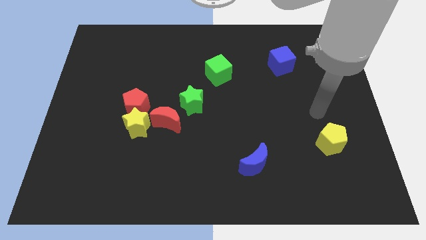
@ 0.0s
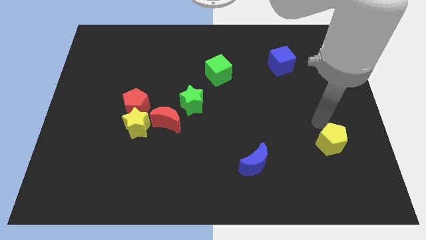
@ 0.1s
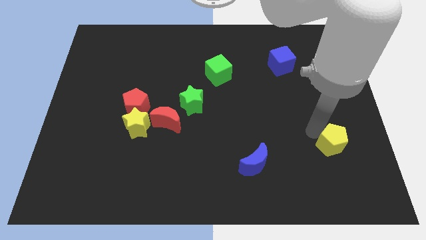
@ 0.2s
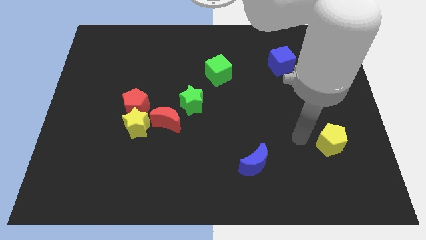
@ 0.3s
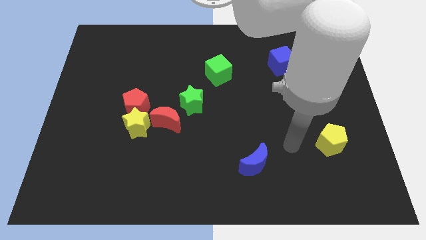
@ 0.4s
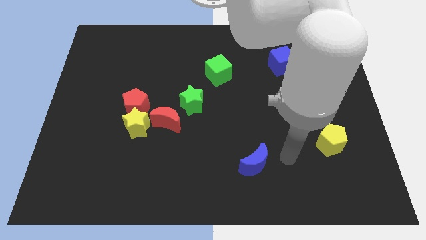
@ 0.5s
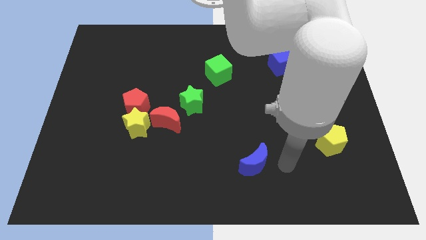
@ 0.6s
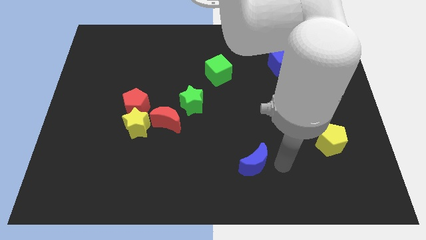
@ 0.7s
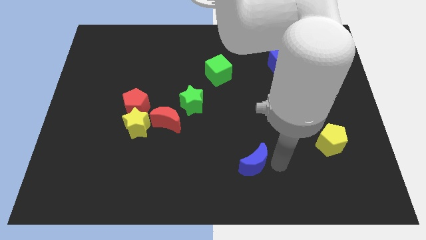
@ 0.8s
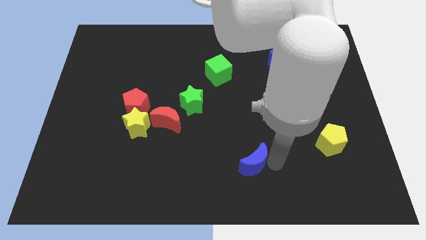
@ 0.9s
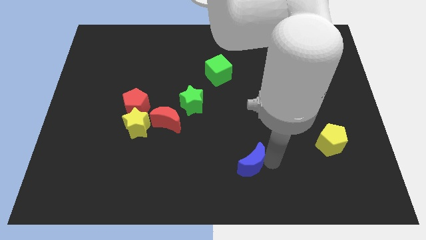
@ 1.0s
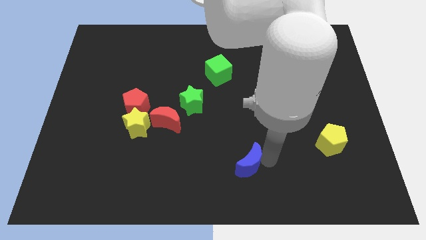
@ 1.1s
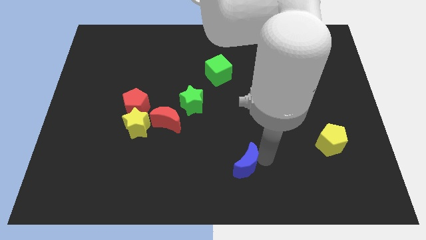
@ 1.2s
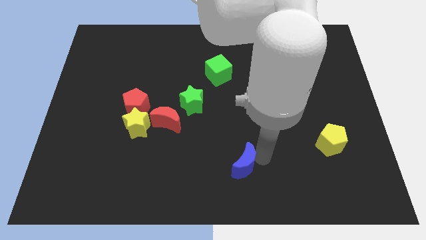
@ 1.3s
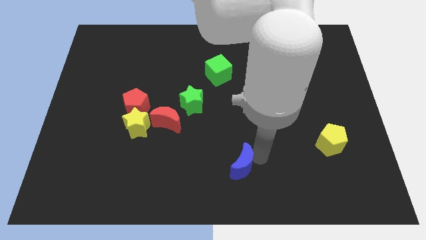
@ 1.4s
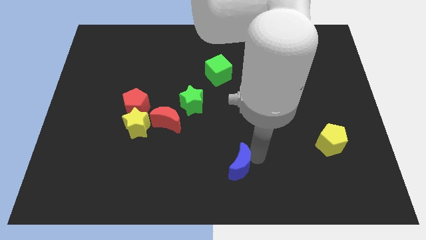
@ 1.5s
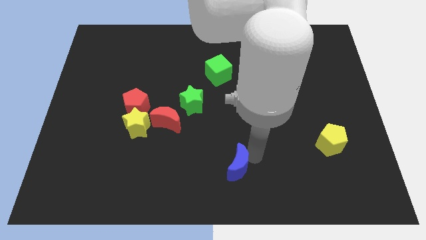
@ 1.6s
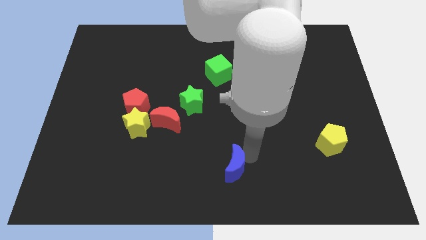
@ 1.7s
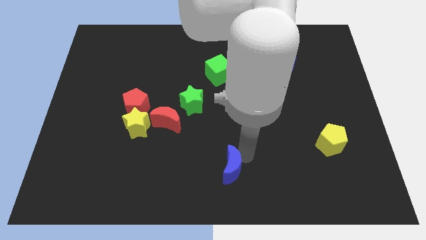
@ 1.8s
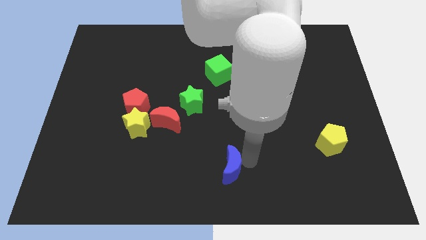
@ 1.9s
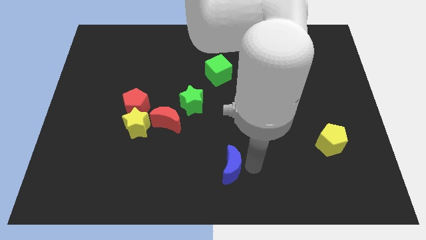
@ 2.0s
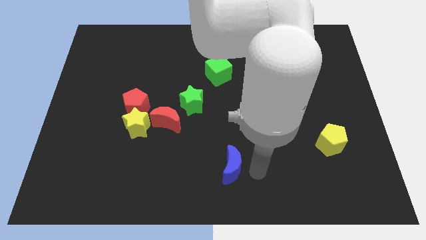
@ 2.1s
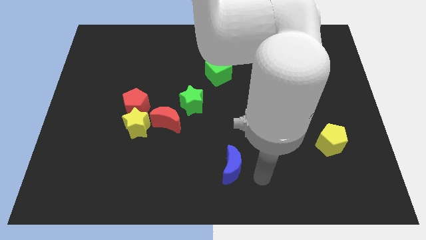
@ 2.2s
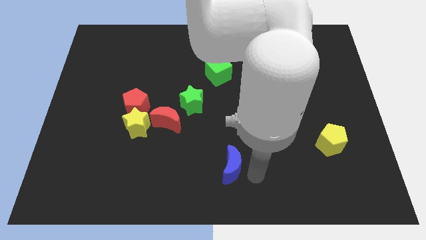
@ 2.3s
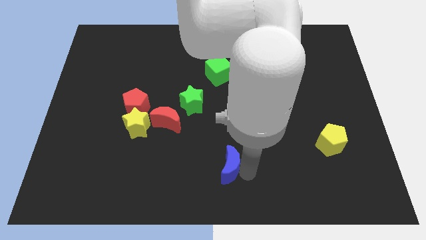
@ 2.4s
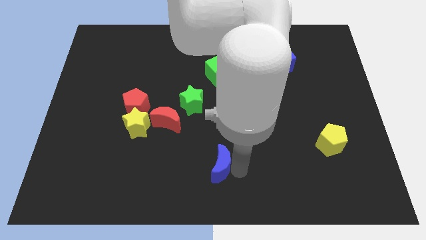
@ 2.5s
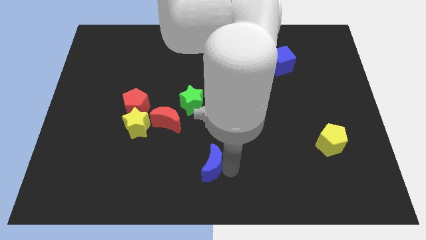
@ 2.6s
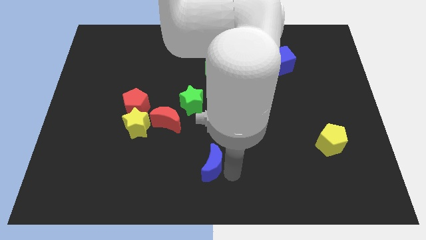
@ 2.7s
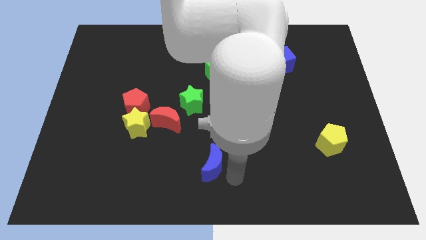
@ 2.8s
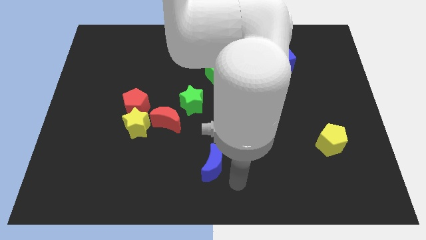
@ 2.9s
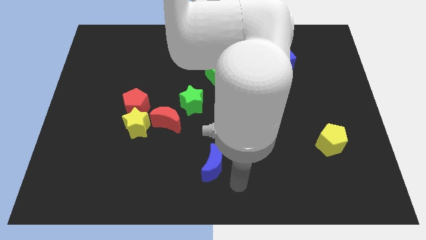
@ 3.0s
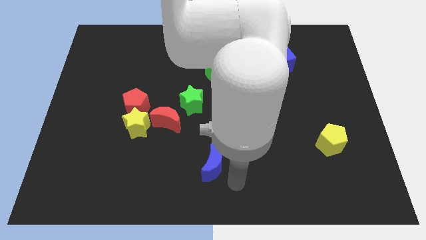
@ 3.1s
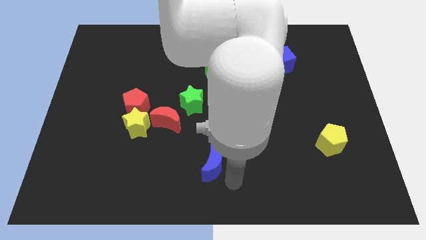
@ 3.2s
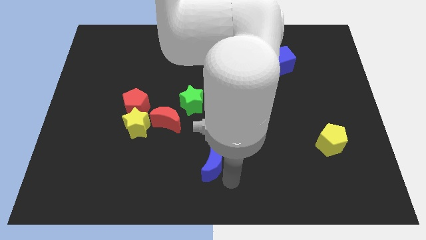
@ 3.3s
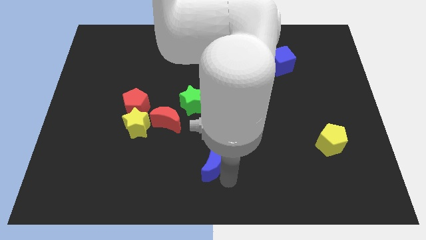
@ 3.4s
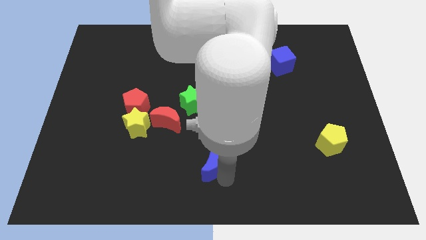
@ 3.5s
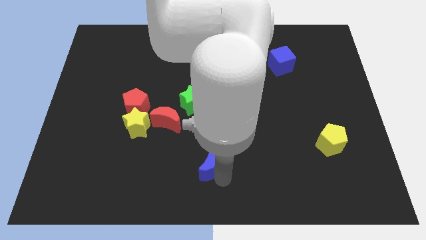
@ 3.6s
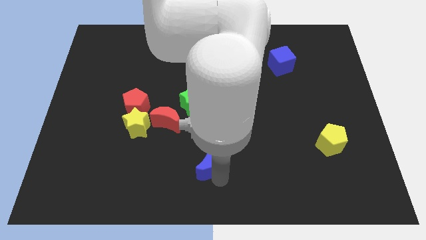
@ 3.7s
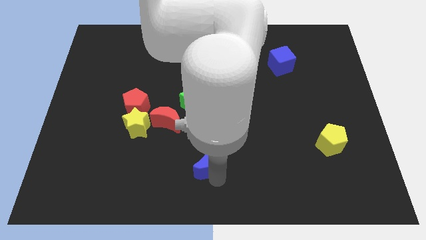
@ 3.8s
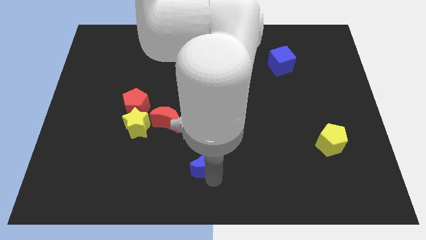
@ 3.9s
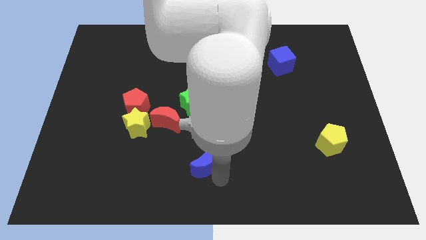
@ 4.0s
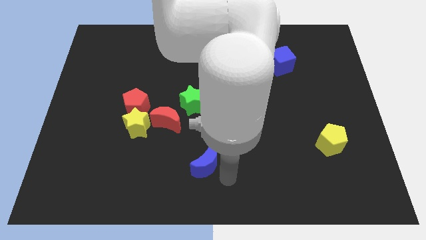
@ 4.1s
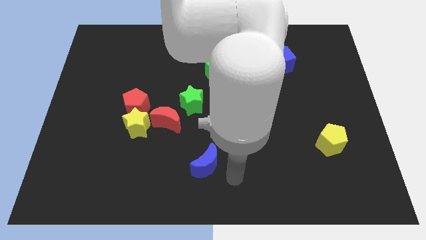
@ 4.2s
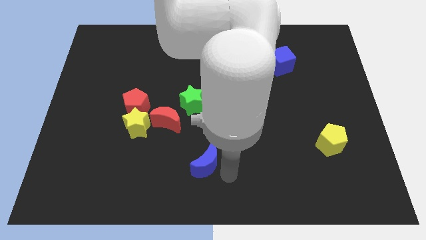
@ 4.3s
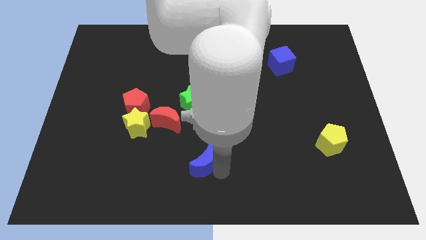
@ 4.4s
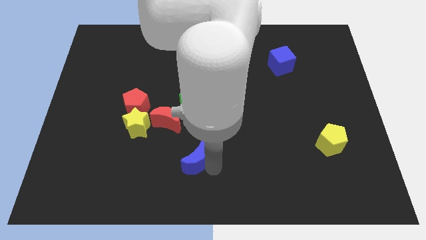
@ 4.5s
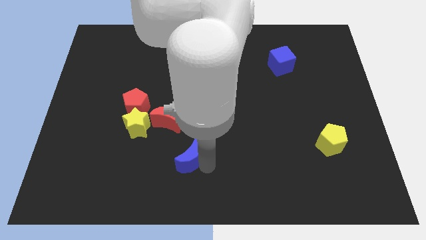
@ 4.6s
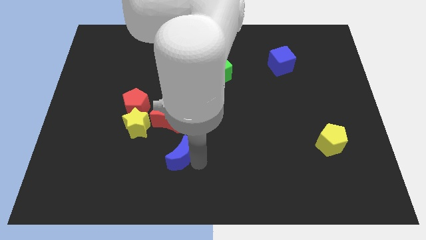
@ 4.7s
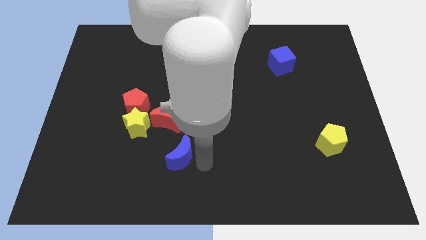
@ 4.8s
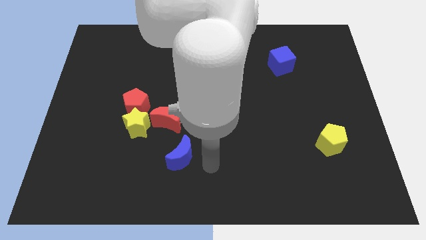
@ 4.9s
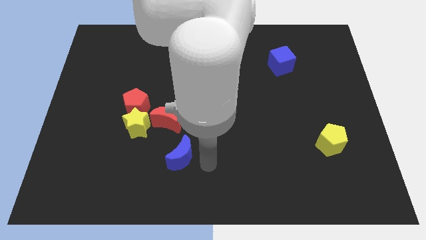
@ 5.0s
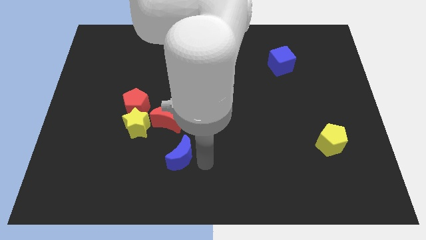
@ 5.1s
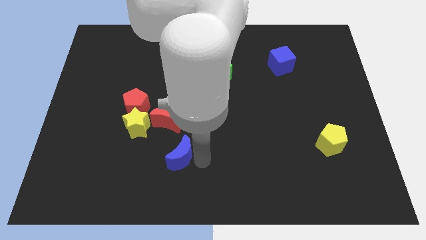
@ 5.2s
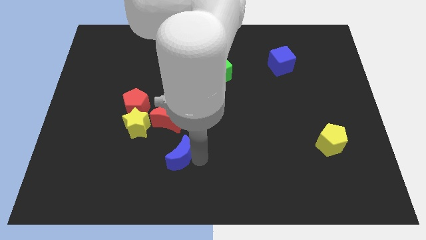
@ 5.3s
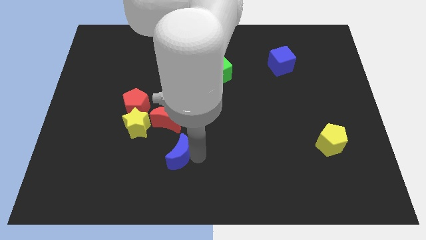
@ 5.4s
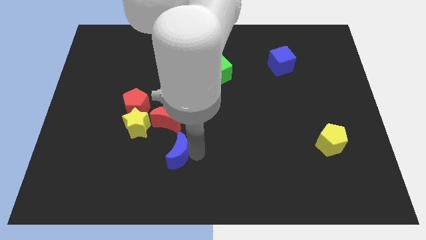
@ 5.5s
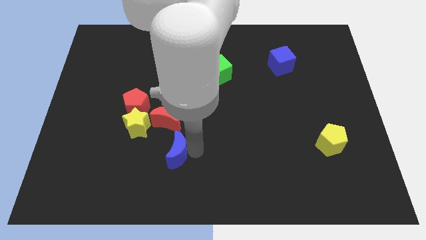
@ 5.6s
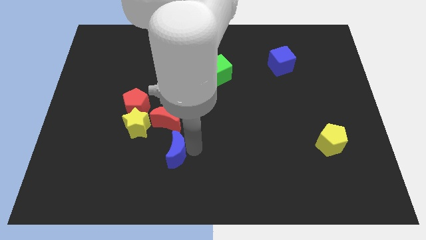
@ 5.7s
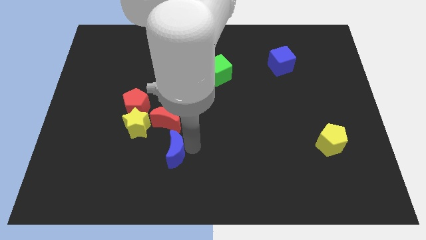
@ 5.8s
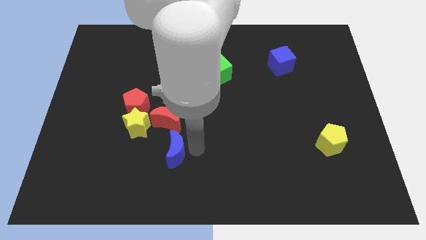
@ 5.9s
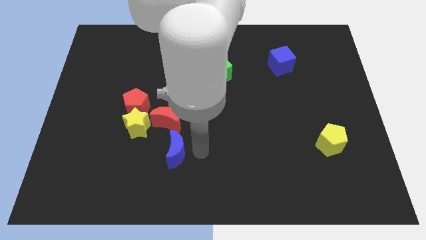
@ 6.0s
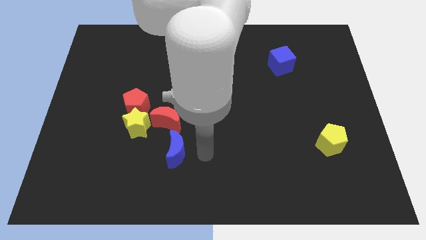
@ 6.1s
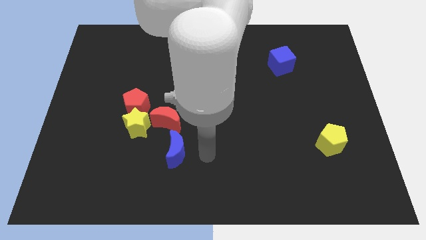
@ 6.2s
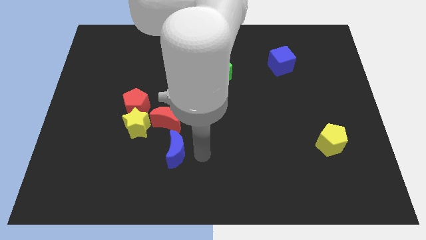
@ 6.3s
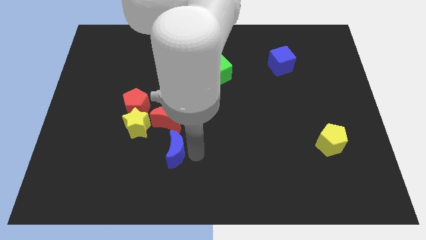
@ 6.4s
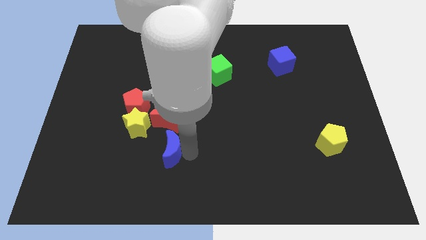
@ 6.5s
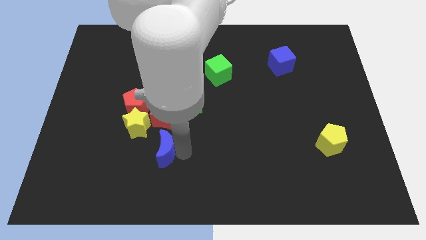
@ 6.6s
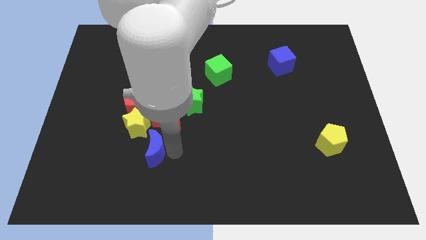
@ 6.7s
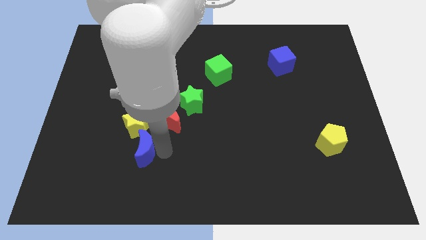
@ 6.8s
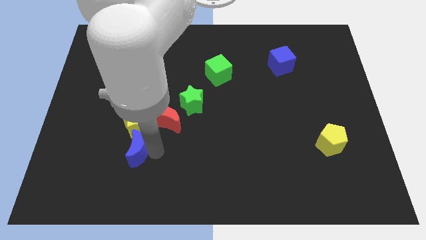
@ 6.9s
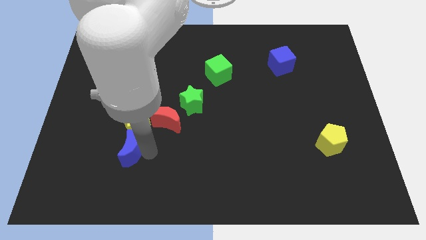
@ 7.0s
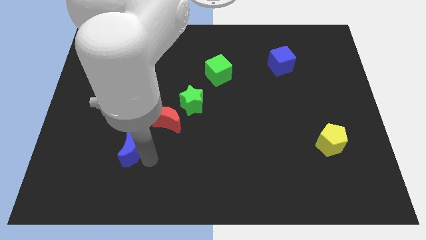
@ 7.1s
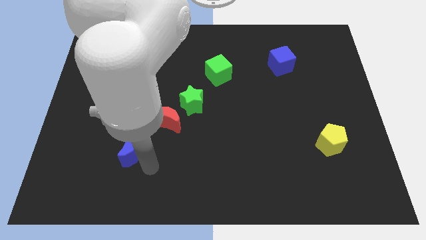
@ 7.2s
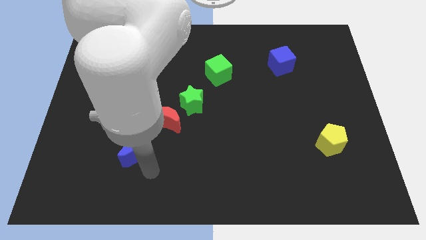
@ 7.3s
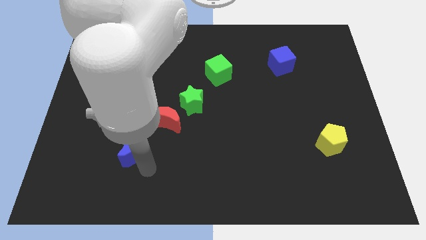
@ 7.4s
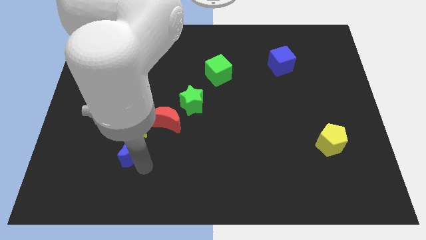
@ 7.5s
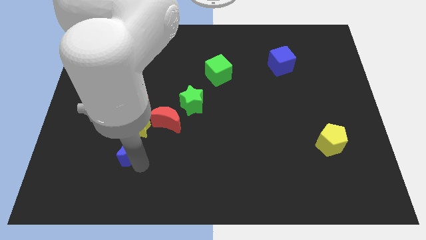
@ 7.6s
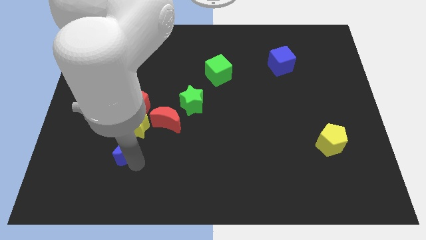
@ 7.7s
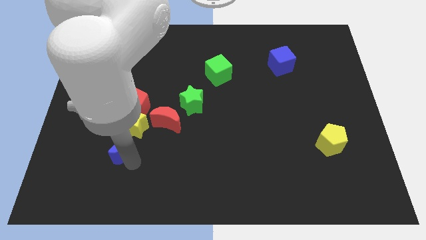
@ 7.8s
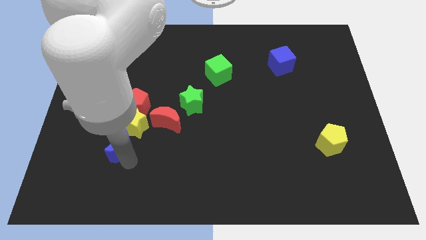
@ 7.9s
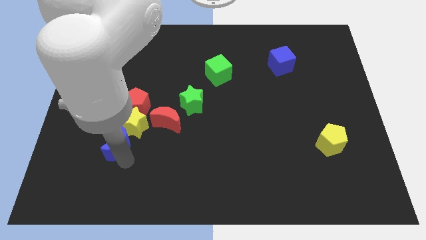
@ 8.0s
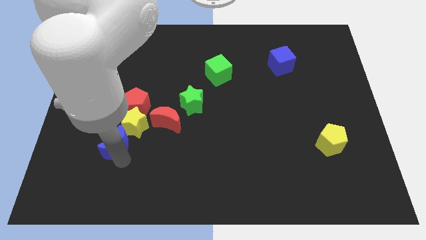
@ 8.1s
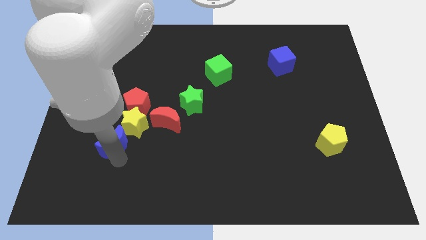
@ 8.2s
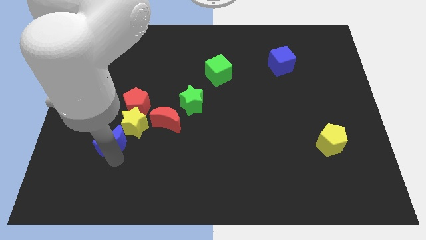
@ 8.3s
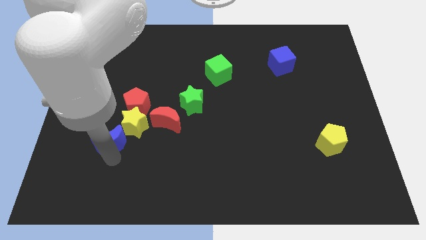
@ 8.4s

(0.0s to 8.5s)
push the blue moon to the bottom left of the red pentagon
